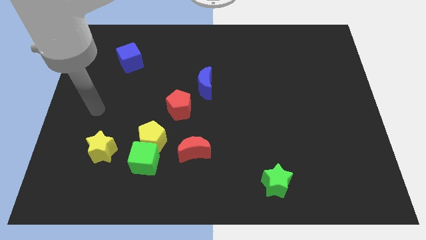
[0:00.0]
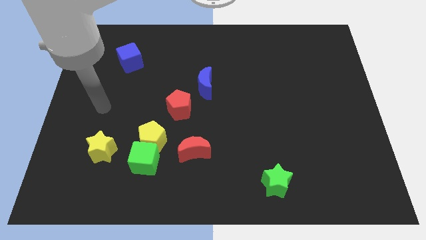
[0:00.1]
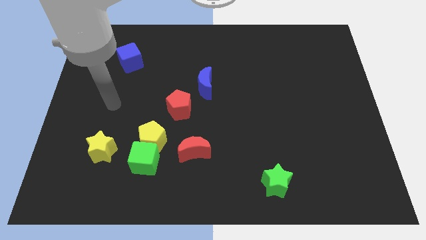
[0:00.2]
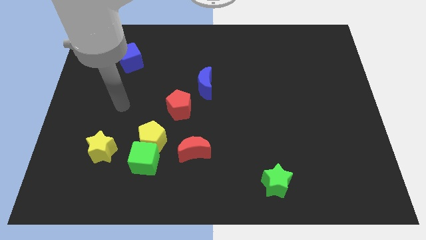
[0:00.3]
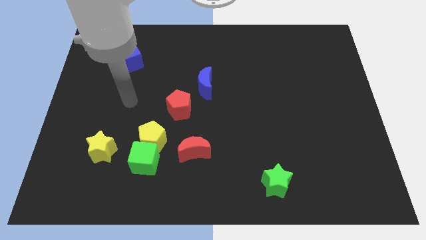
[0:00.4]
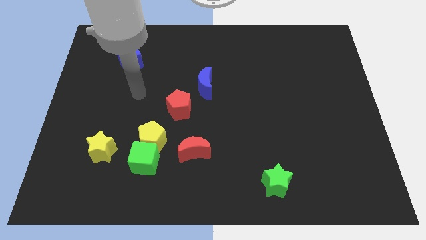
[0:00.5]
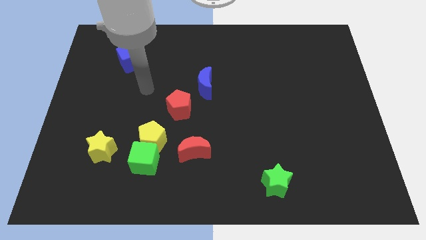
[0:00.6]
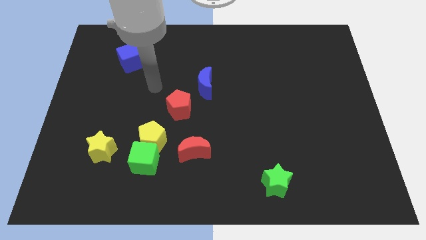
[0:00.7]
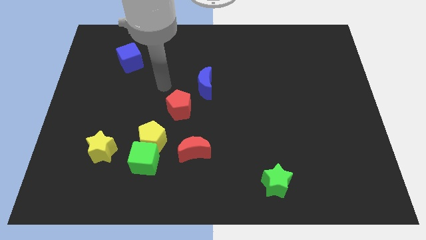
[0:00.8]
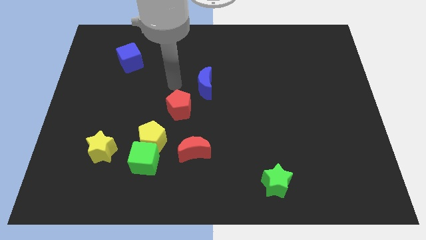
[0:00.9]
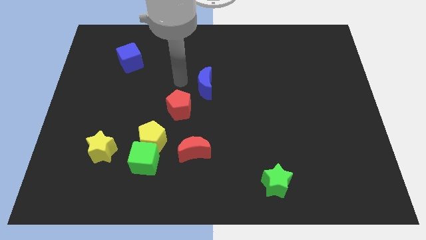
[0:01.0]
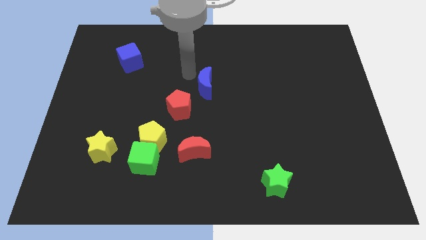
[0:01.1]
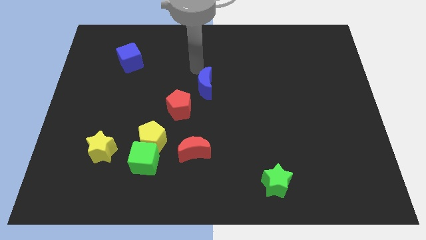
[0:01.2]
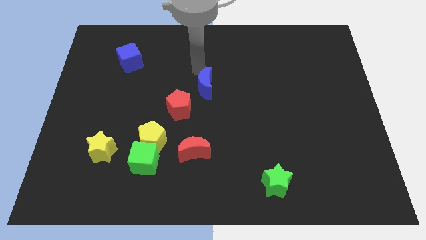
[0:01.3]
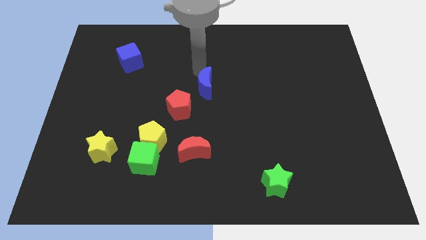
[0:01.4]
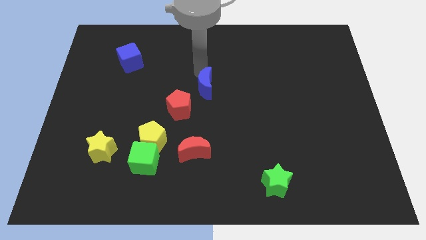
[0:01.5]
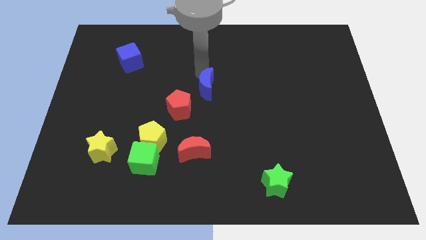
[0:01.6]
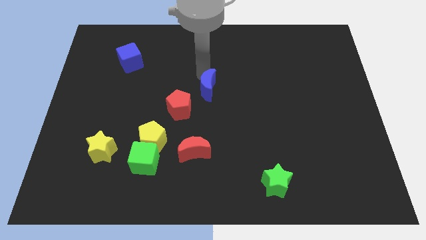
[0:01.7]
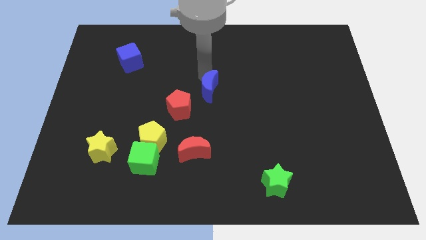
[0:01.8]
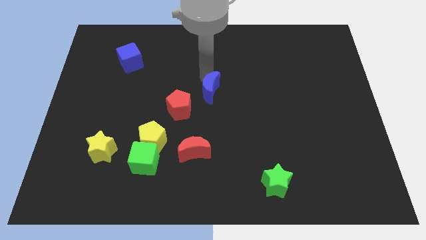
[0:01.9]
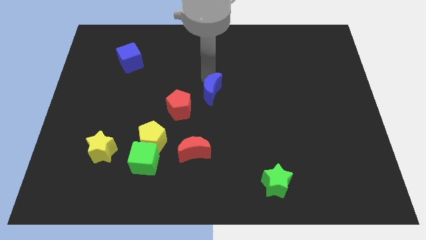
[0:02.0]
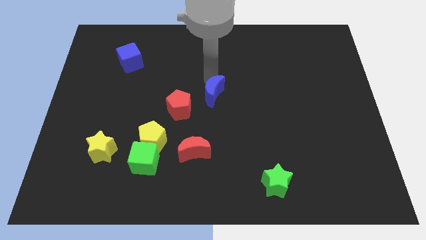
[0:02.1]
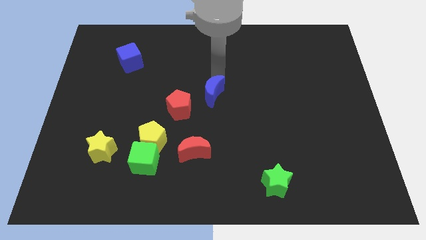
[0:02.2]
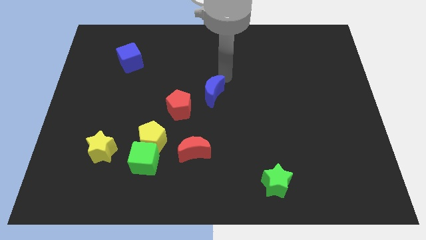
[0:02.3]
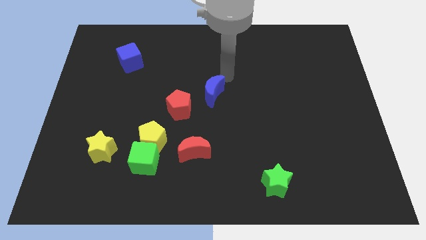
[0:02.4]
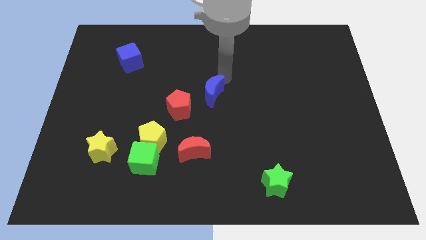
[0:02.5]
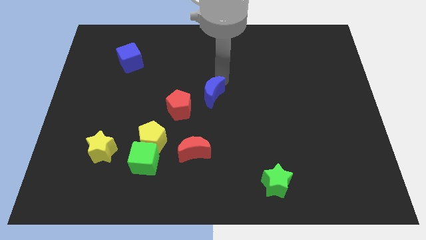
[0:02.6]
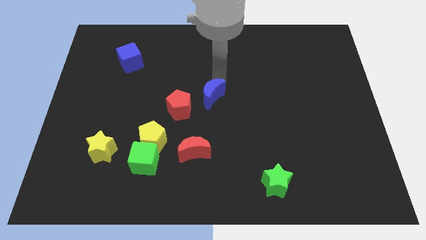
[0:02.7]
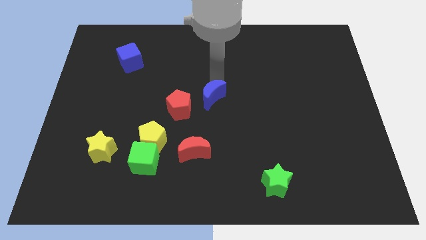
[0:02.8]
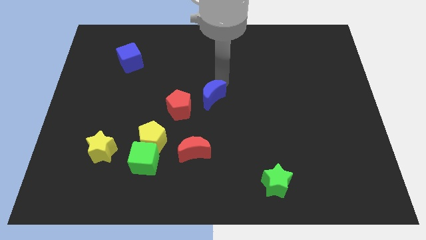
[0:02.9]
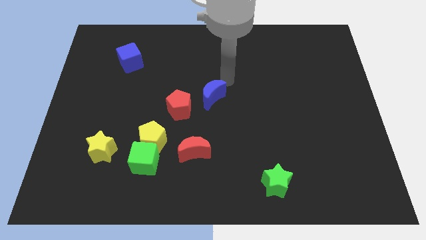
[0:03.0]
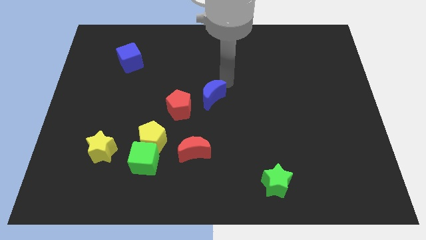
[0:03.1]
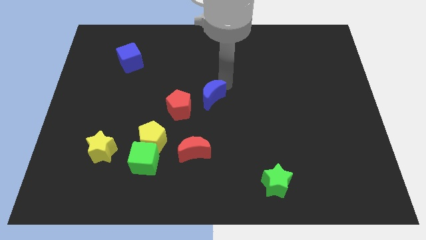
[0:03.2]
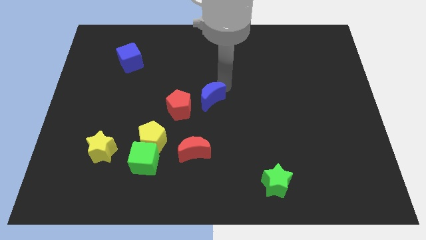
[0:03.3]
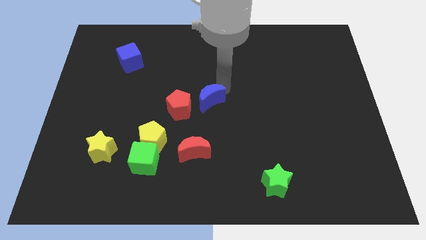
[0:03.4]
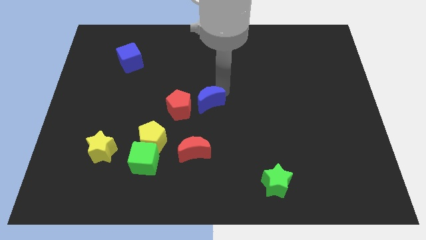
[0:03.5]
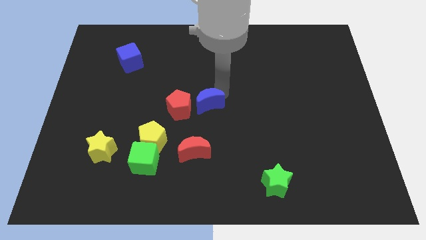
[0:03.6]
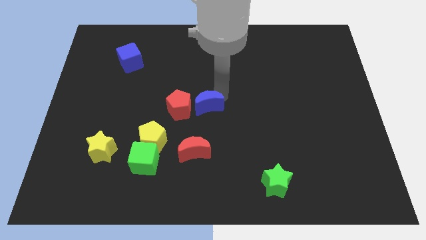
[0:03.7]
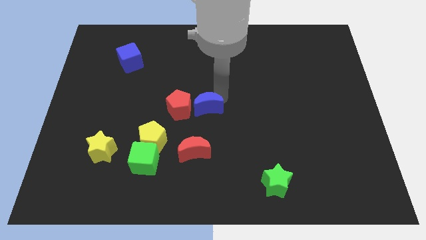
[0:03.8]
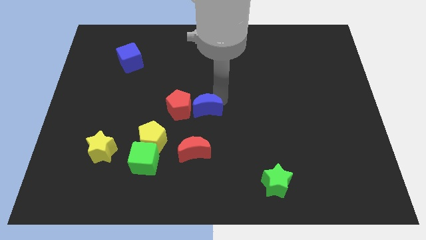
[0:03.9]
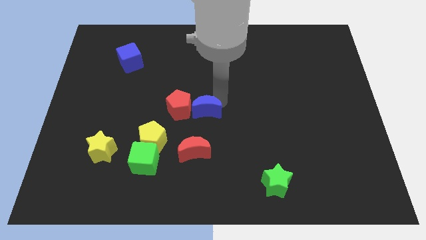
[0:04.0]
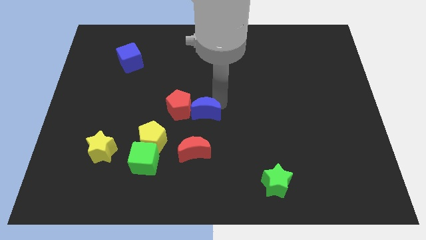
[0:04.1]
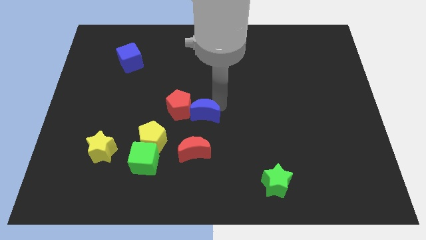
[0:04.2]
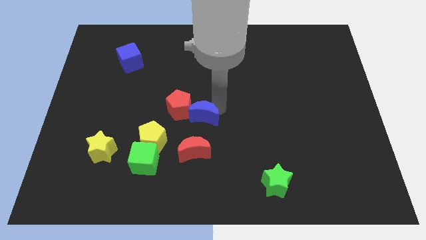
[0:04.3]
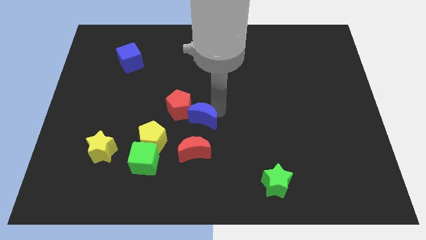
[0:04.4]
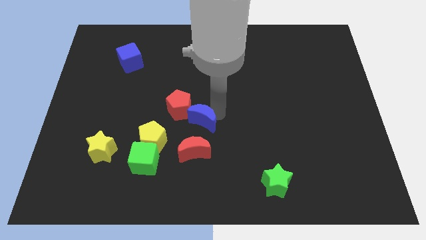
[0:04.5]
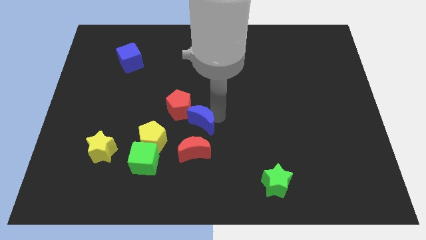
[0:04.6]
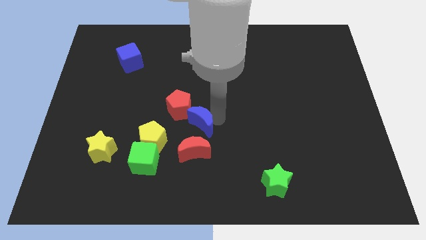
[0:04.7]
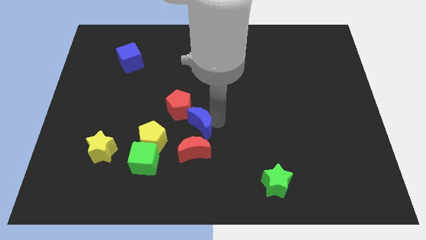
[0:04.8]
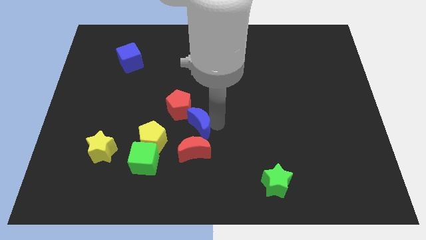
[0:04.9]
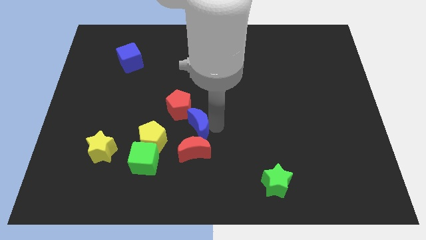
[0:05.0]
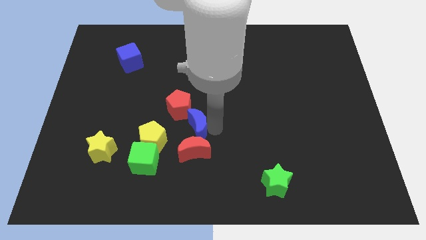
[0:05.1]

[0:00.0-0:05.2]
move the blue moon to the top left side of the red moon

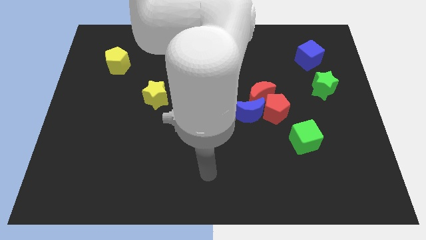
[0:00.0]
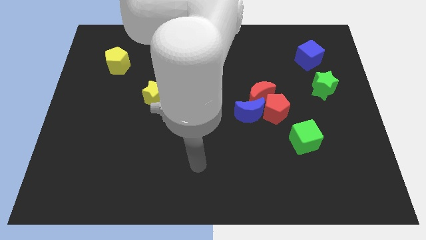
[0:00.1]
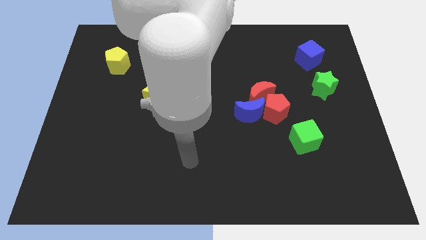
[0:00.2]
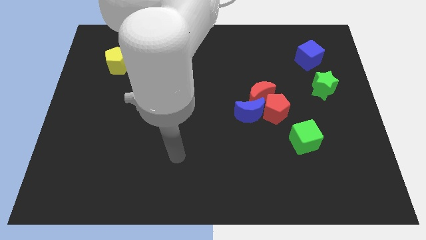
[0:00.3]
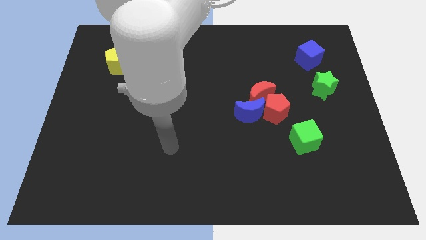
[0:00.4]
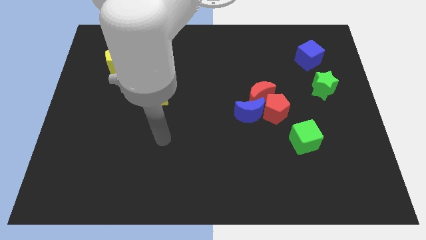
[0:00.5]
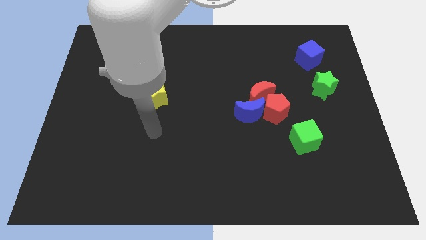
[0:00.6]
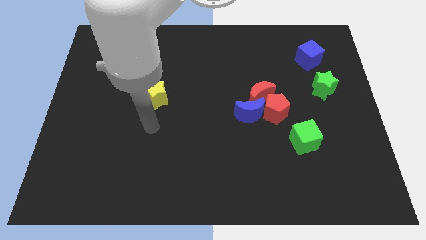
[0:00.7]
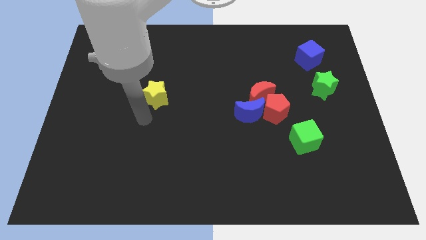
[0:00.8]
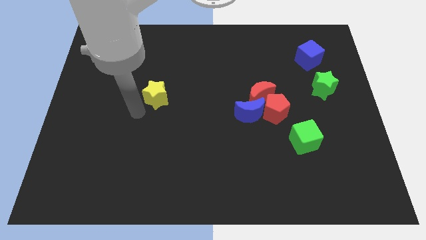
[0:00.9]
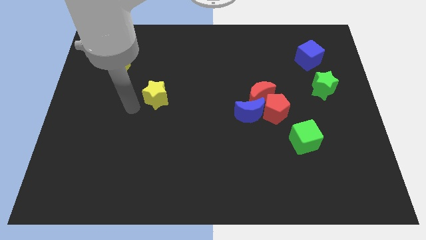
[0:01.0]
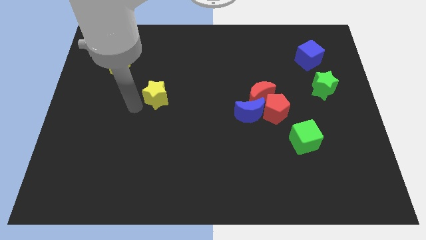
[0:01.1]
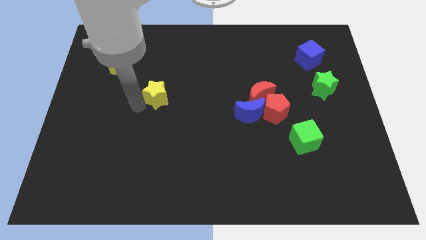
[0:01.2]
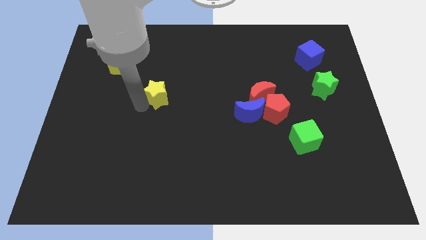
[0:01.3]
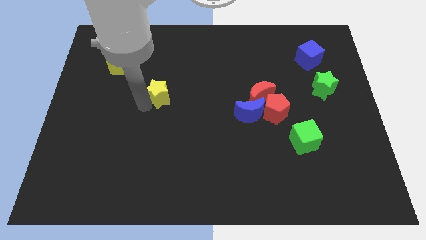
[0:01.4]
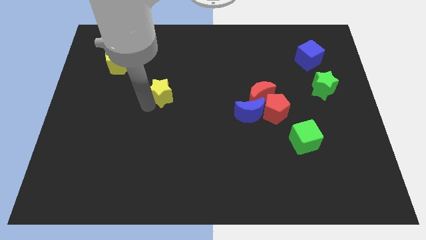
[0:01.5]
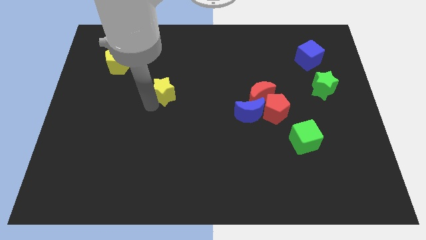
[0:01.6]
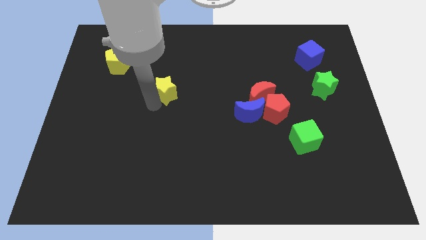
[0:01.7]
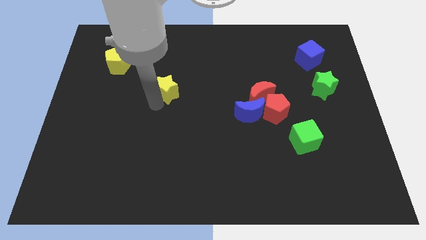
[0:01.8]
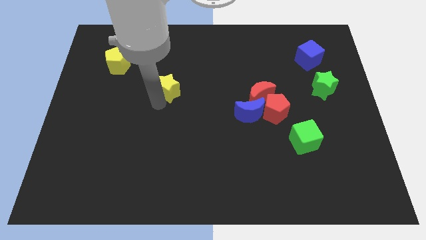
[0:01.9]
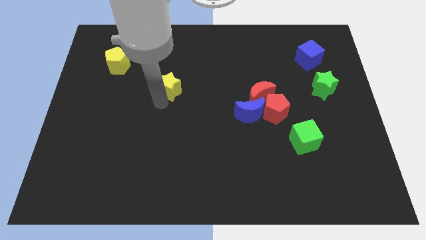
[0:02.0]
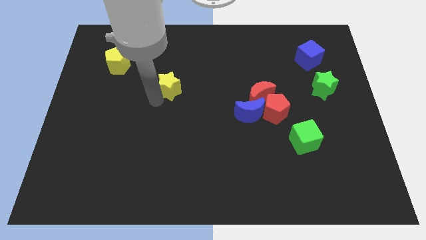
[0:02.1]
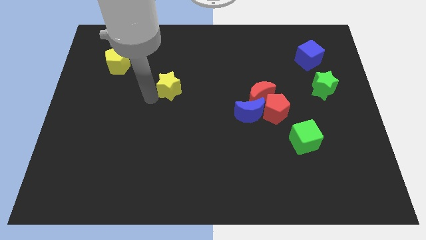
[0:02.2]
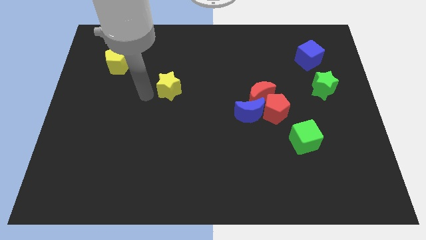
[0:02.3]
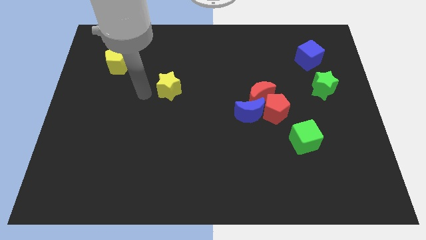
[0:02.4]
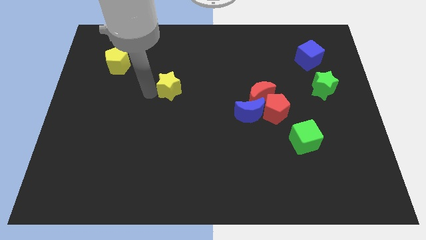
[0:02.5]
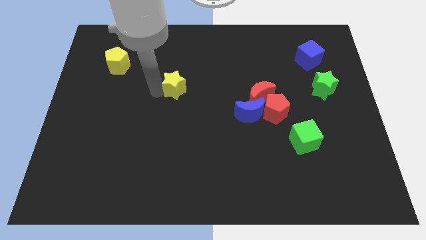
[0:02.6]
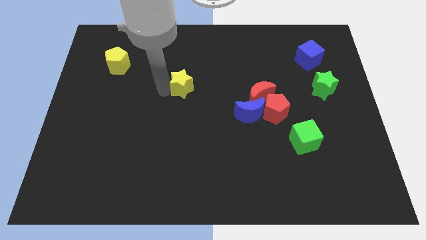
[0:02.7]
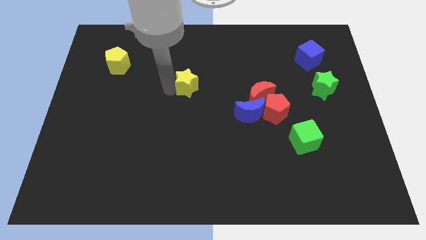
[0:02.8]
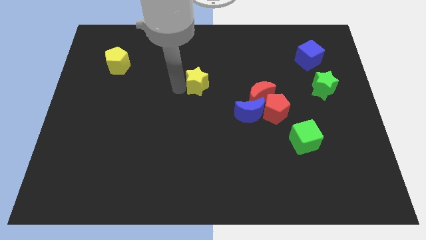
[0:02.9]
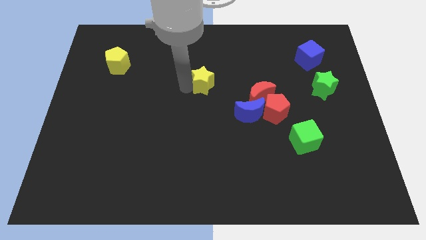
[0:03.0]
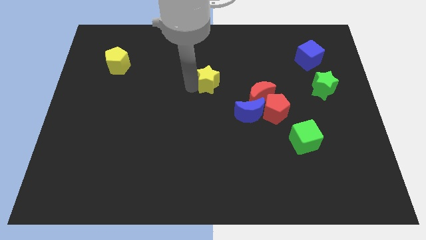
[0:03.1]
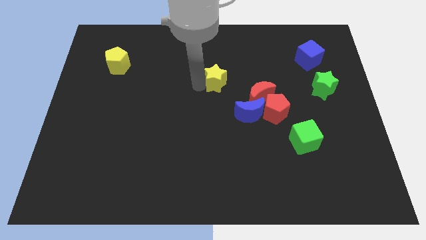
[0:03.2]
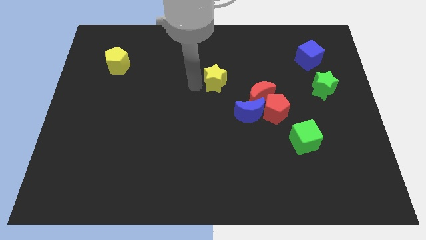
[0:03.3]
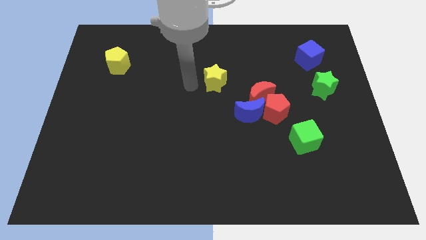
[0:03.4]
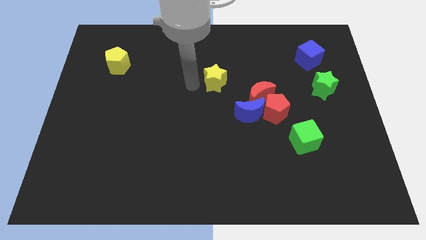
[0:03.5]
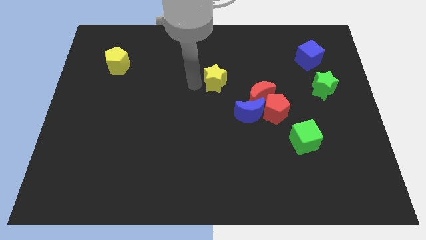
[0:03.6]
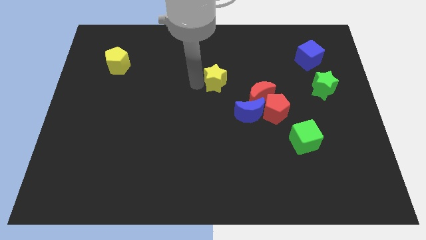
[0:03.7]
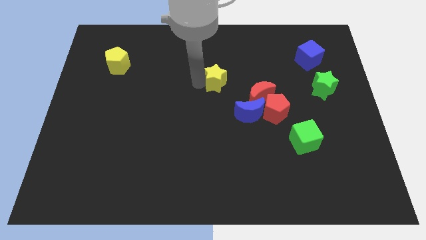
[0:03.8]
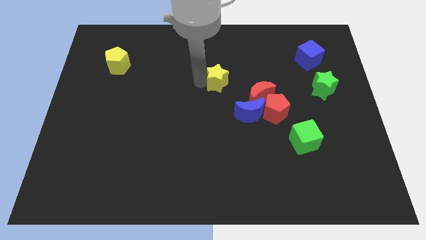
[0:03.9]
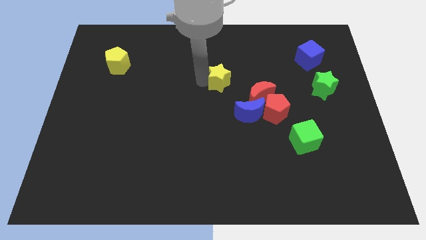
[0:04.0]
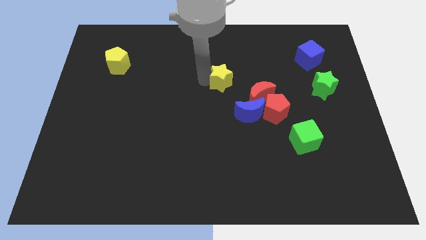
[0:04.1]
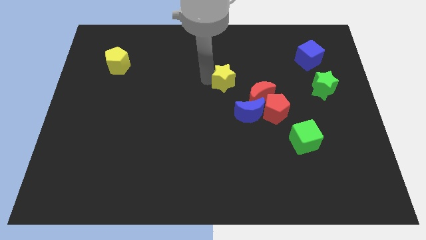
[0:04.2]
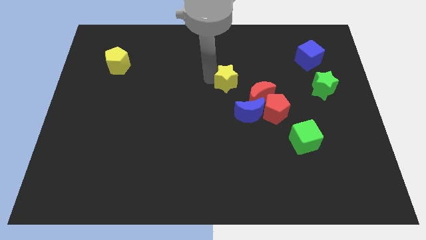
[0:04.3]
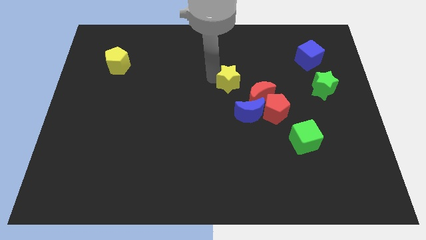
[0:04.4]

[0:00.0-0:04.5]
push the yellow star to the top of the blue moon
